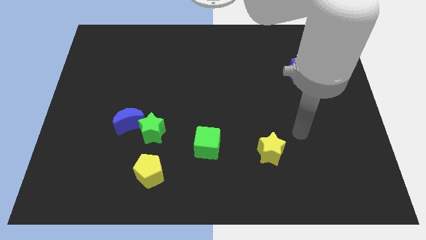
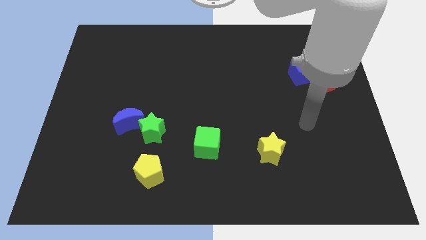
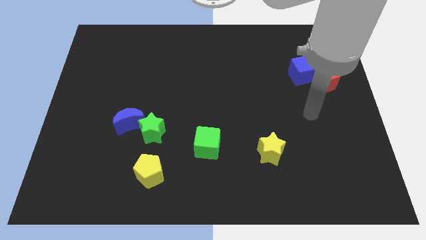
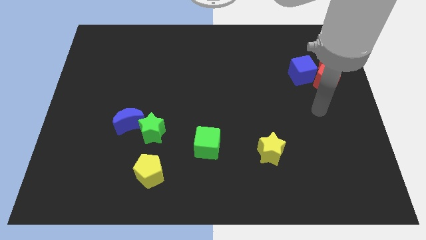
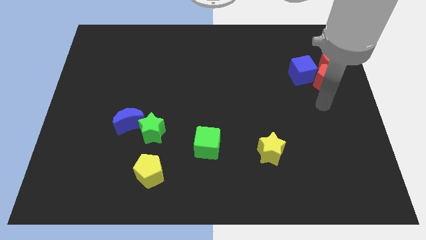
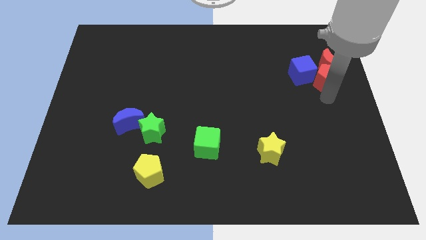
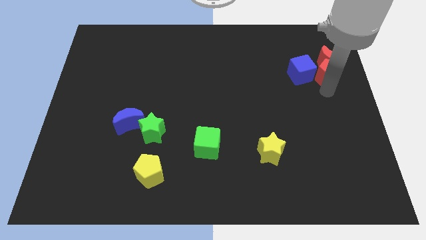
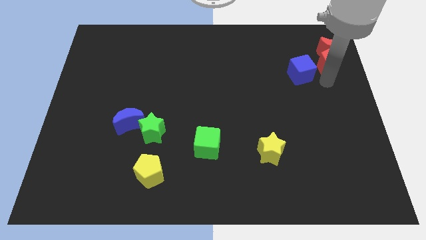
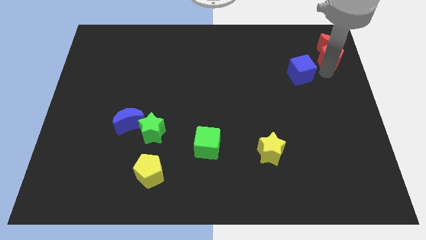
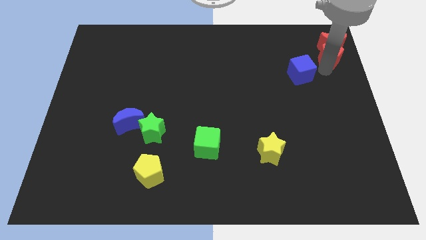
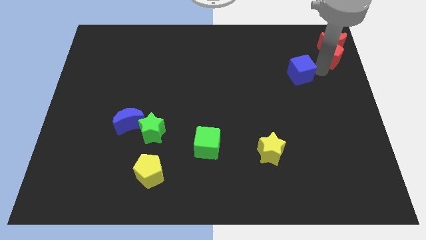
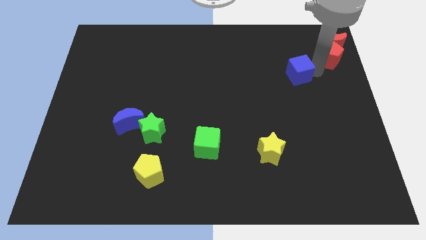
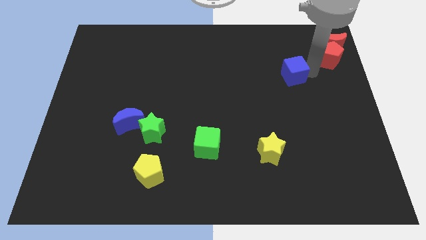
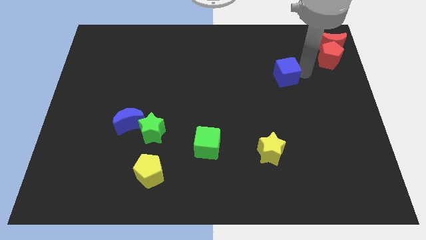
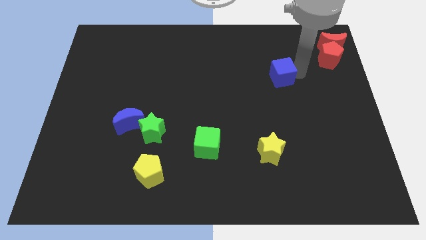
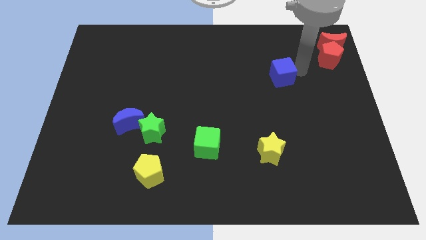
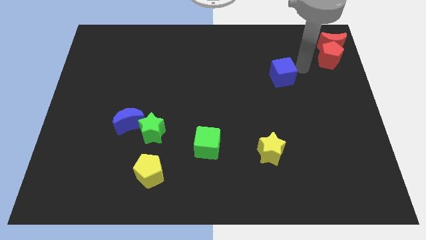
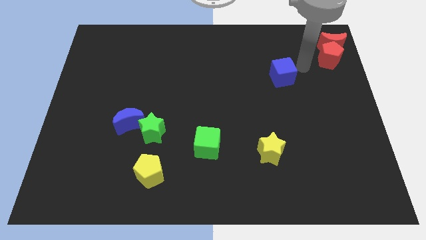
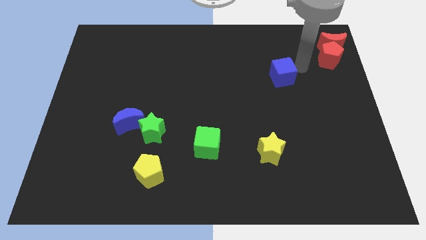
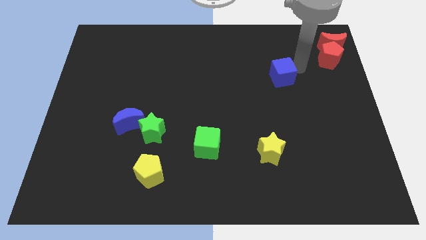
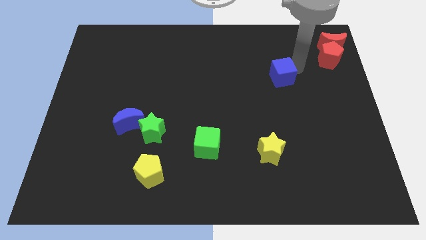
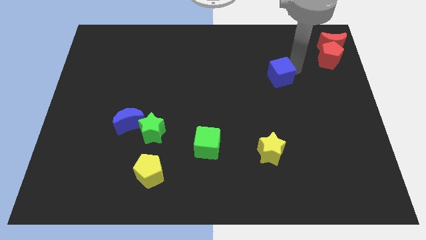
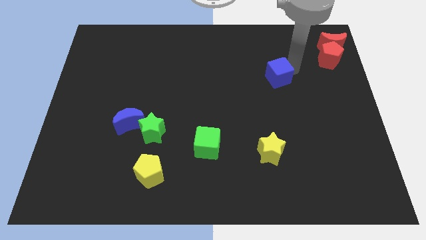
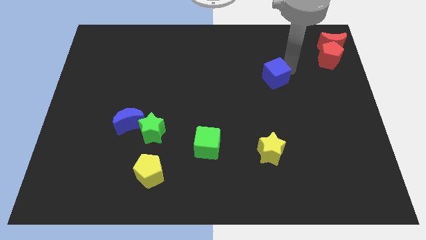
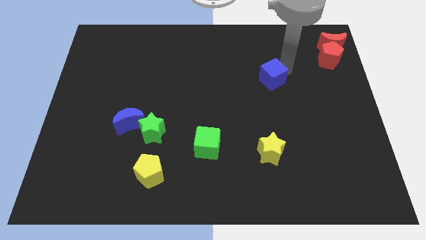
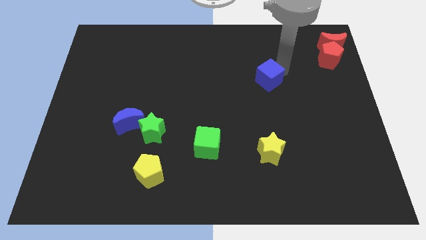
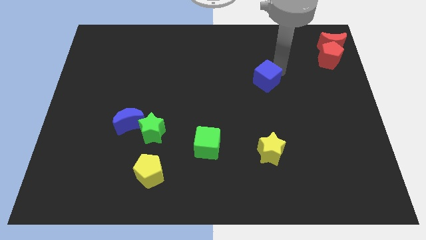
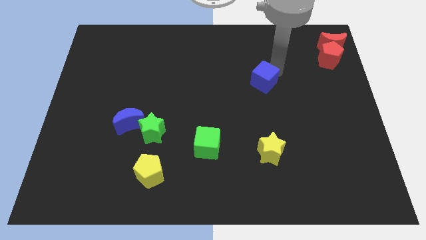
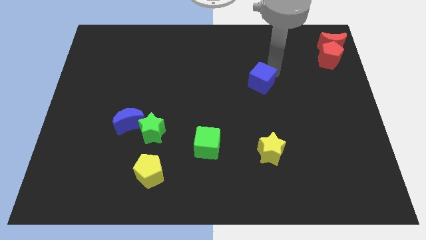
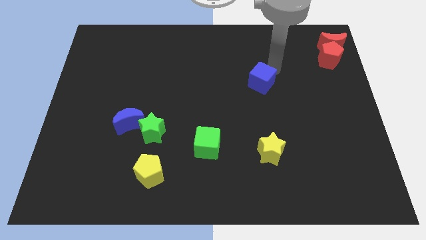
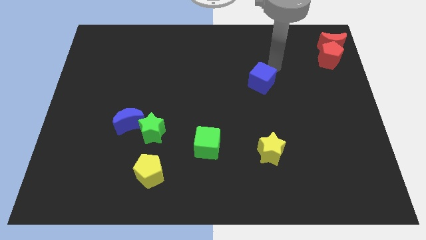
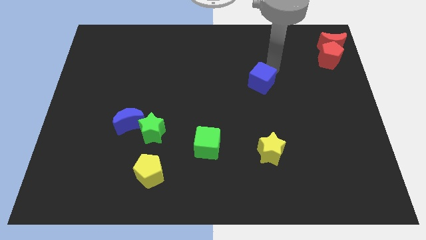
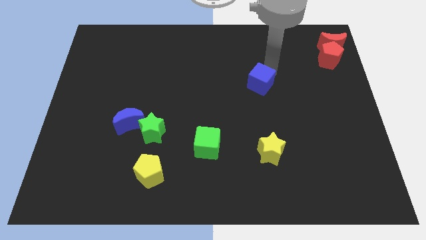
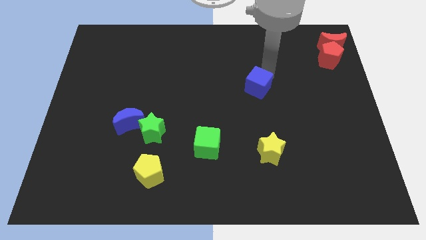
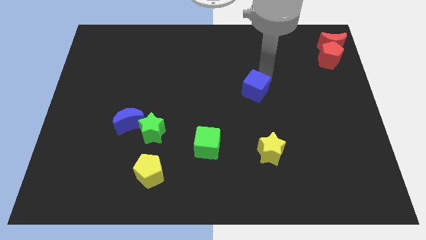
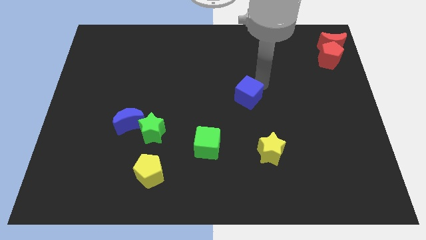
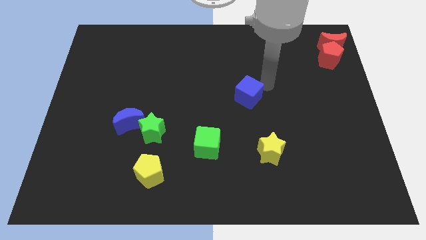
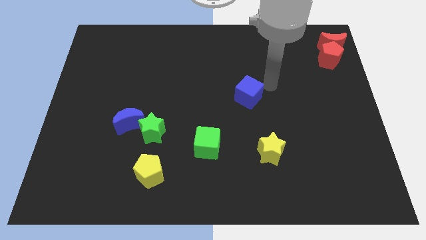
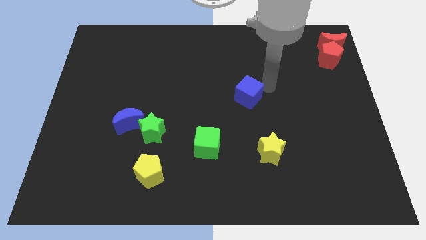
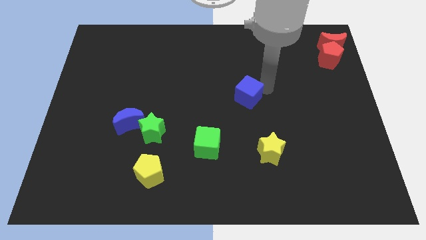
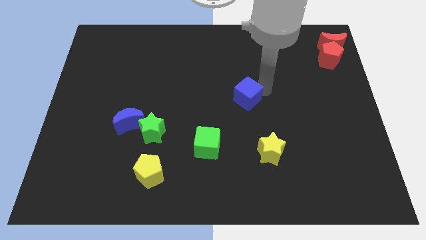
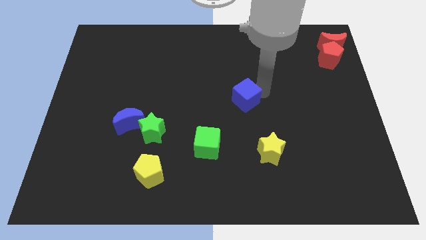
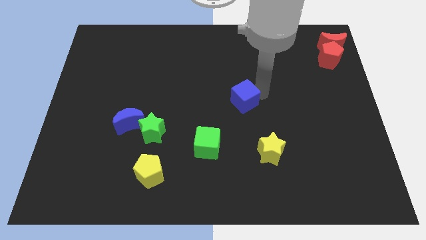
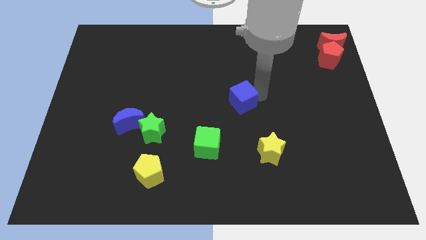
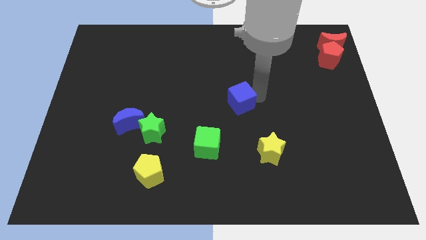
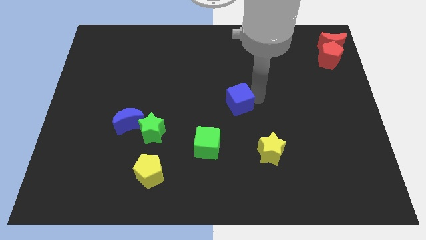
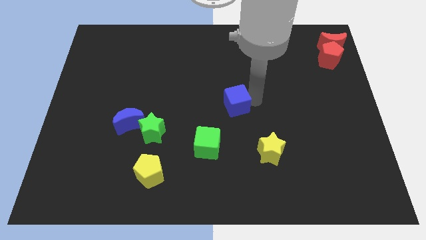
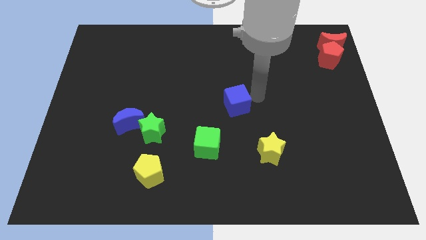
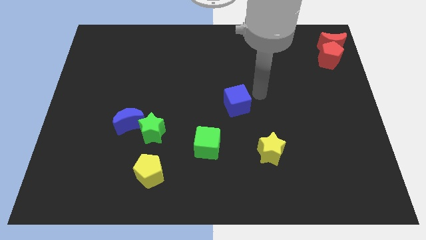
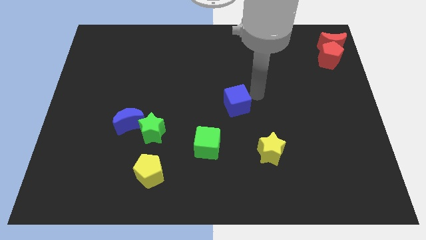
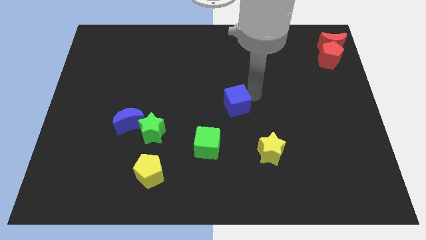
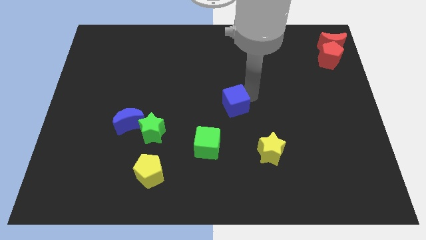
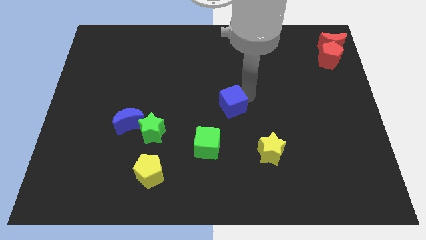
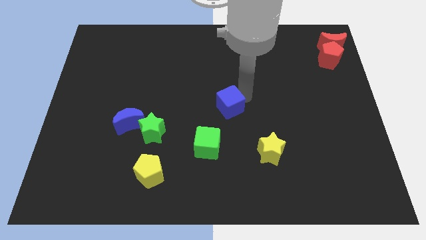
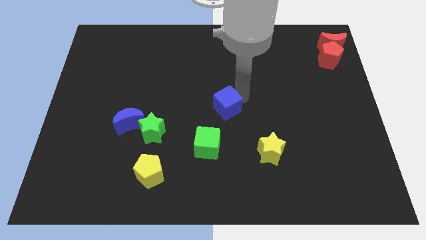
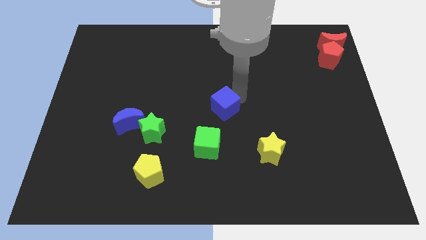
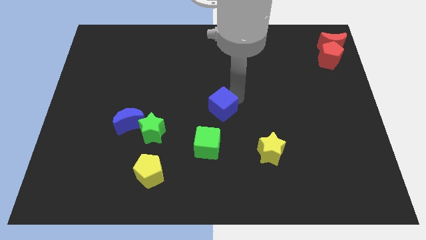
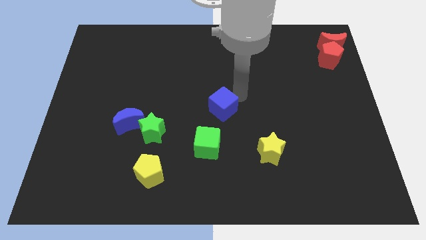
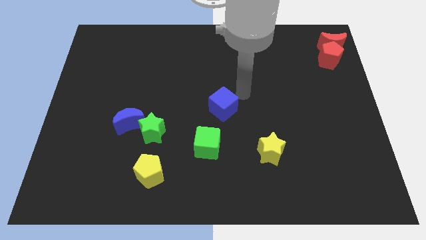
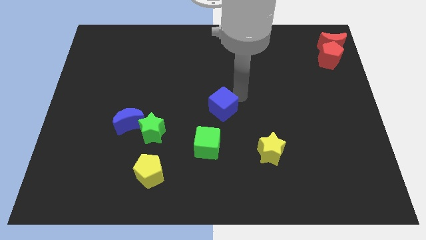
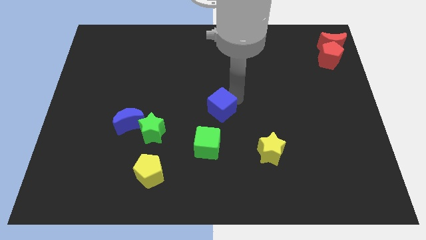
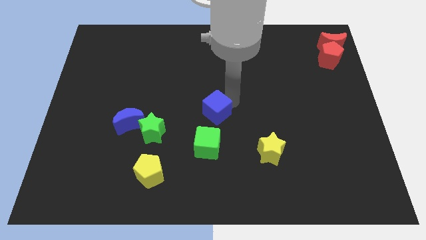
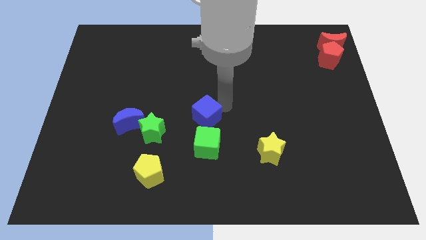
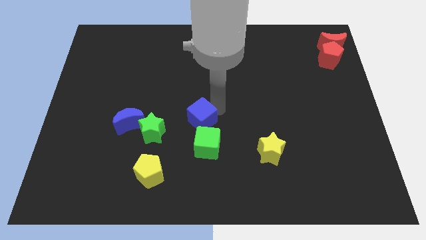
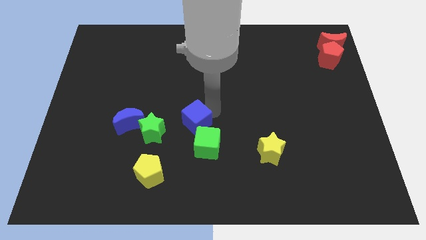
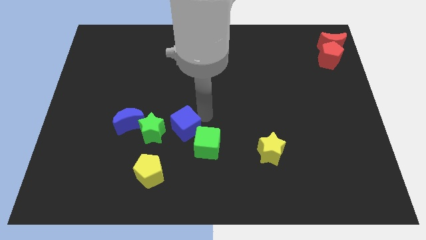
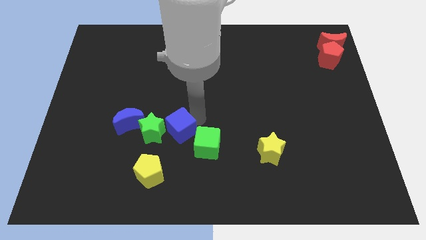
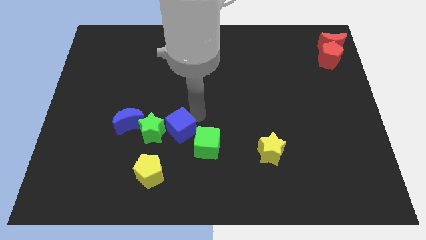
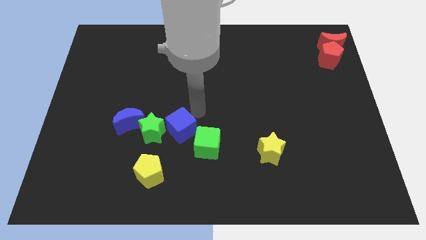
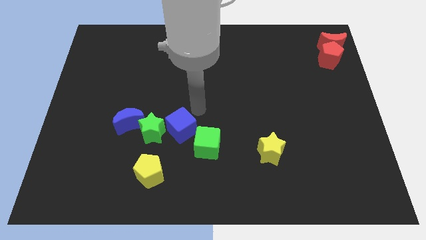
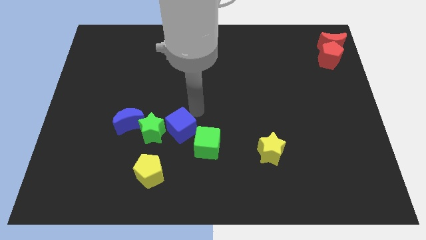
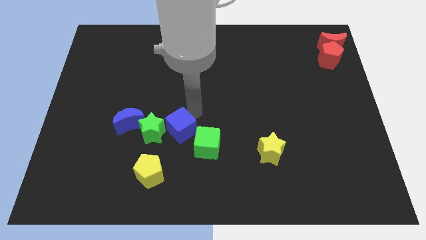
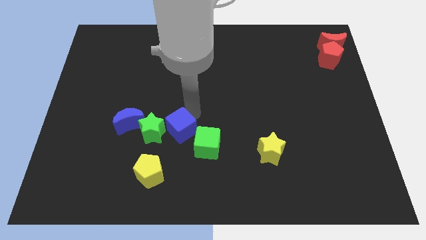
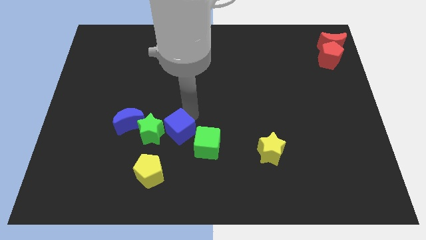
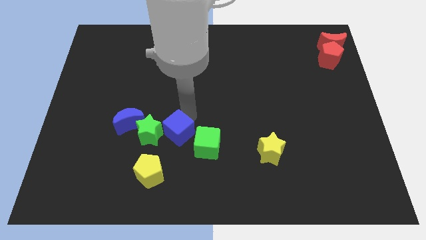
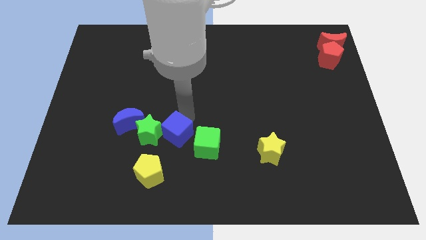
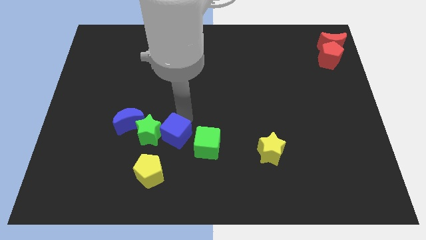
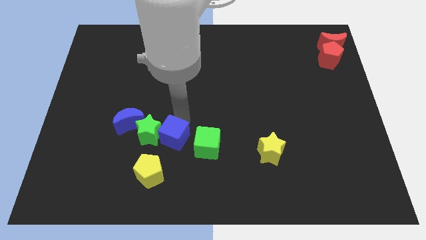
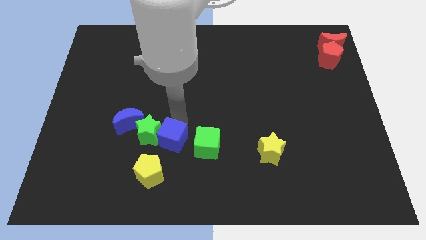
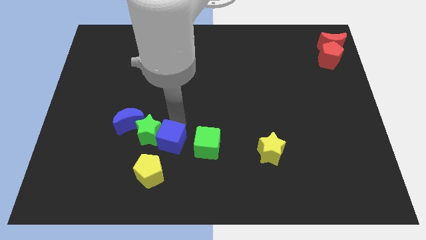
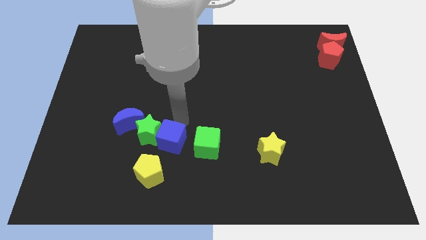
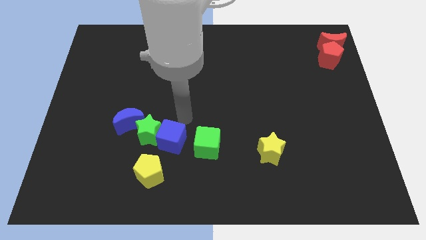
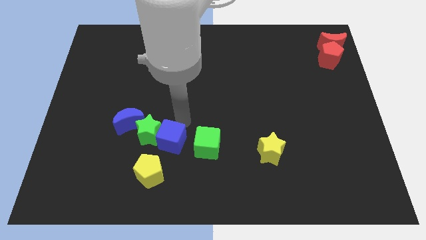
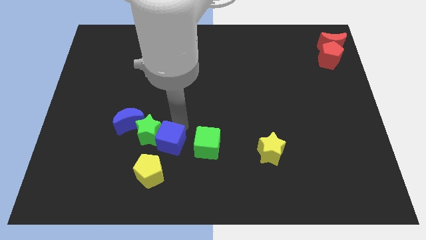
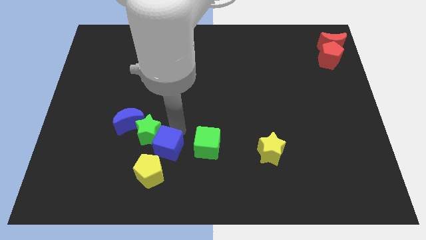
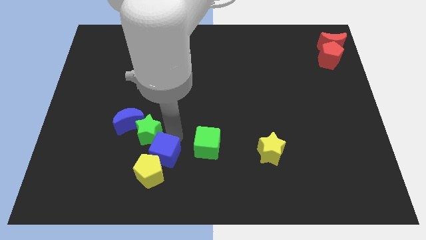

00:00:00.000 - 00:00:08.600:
move the blue cube close to the yellow pentagon
